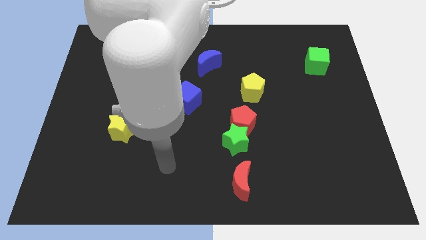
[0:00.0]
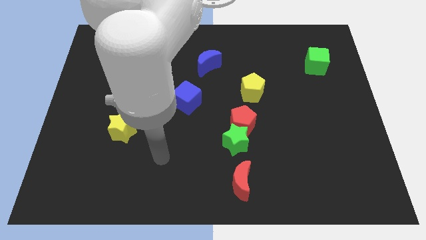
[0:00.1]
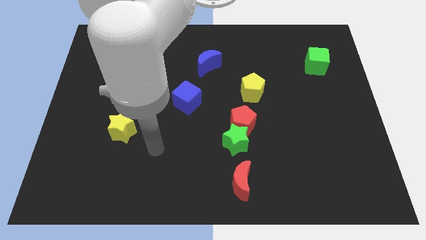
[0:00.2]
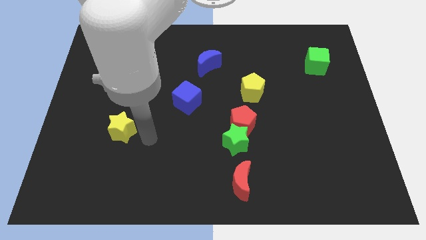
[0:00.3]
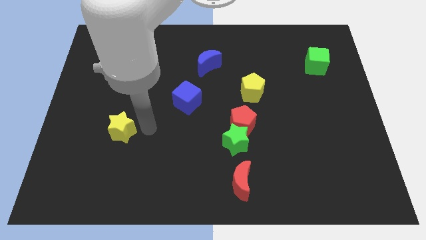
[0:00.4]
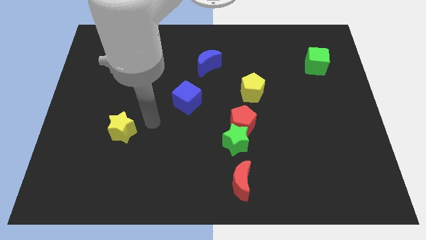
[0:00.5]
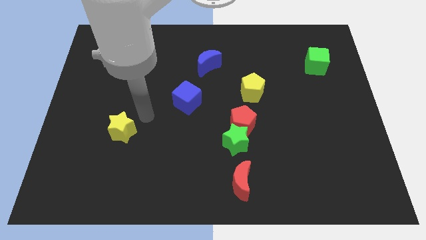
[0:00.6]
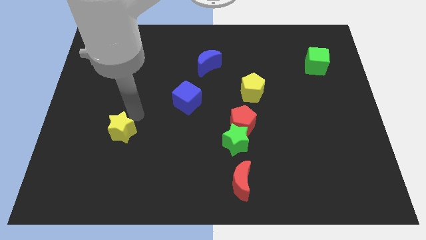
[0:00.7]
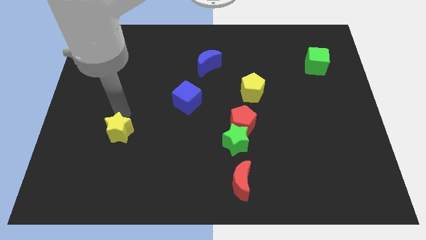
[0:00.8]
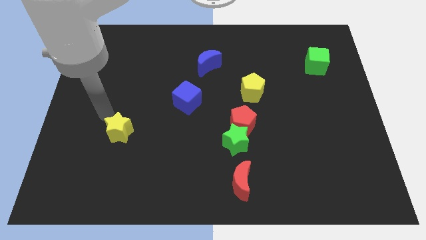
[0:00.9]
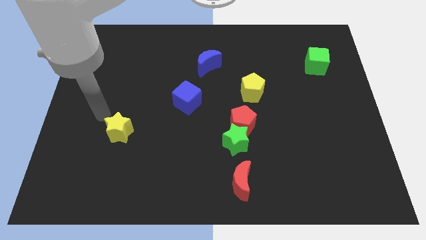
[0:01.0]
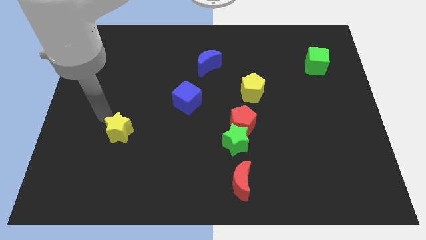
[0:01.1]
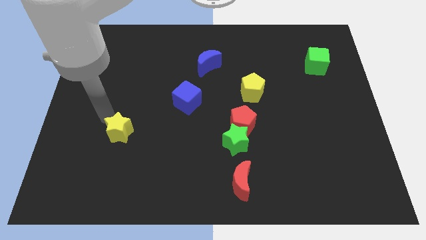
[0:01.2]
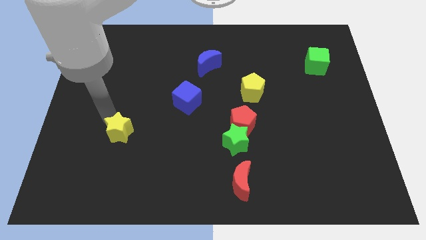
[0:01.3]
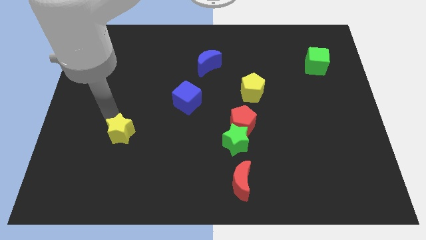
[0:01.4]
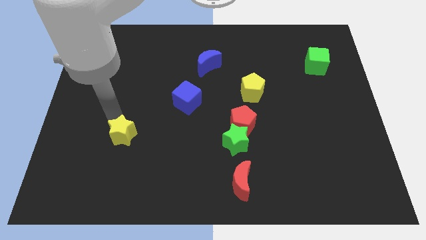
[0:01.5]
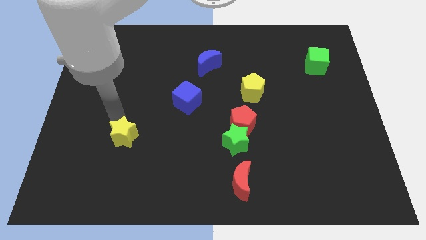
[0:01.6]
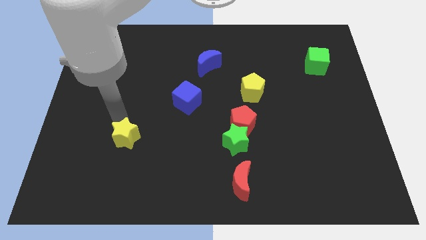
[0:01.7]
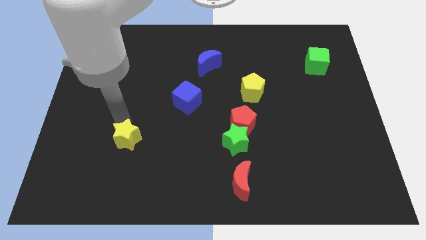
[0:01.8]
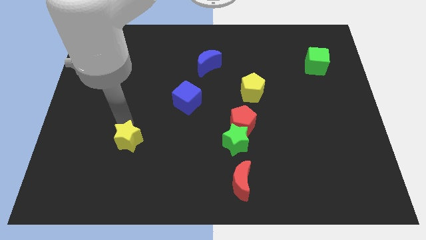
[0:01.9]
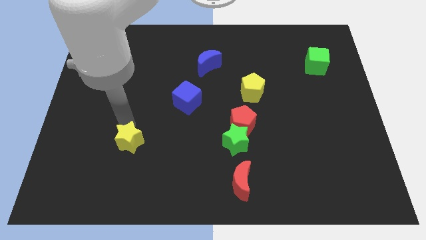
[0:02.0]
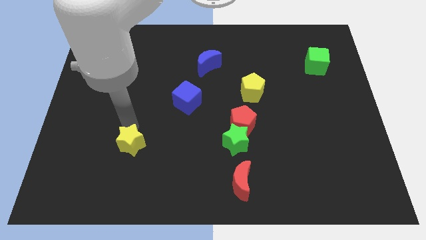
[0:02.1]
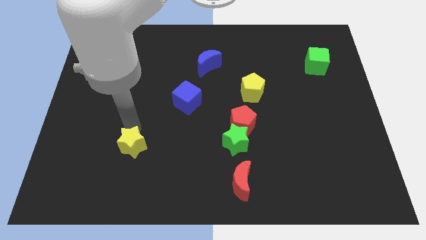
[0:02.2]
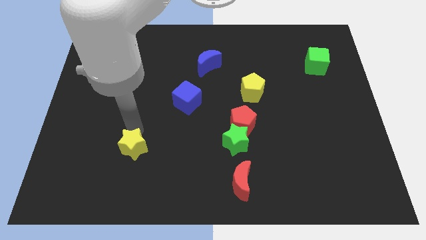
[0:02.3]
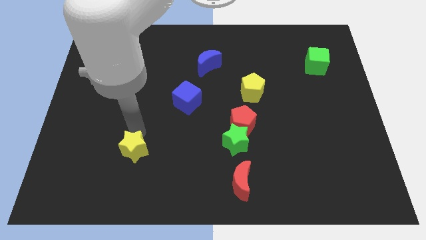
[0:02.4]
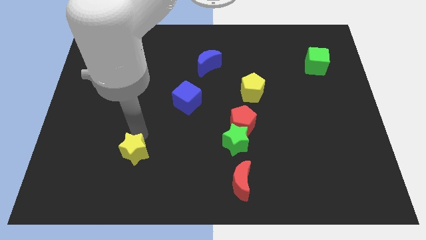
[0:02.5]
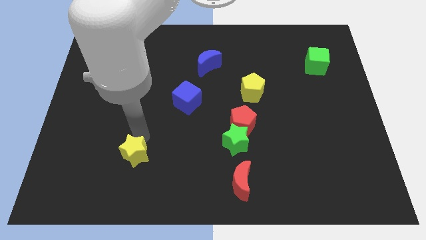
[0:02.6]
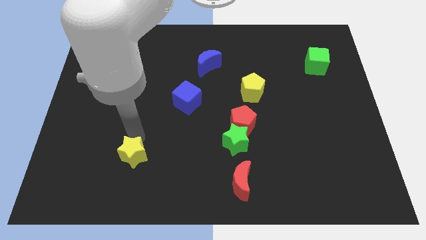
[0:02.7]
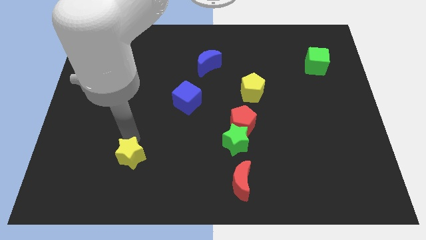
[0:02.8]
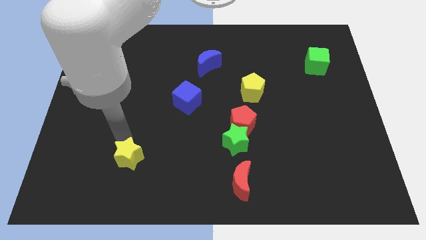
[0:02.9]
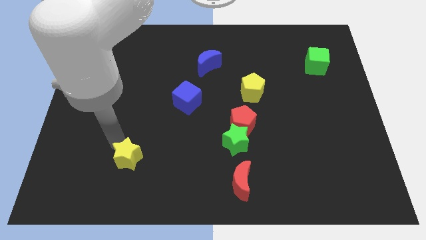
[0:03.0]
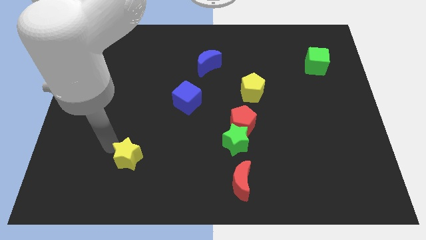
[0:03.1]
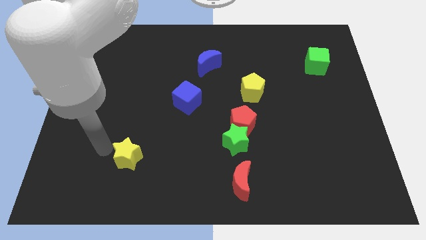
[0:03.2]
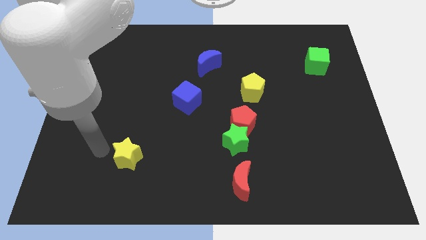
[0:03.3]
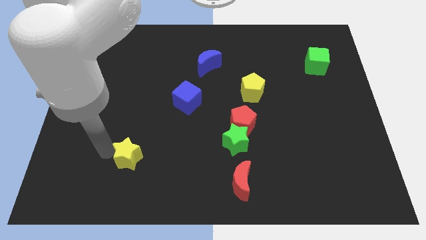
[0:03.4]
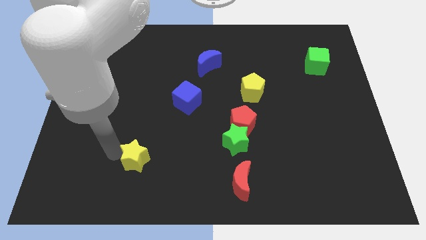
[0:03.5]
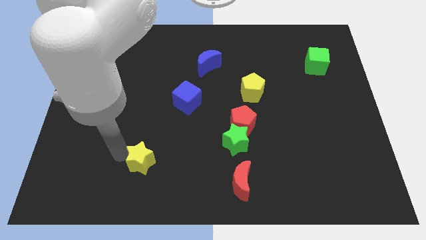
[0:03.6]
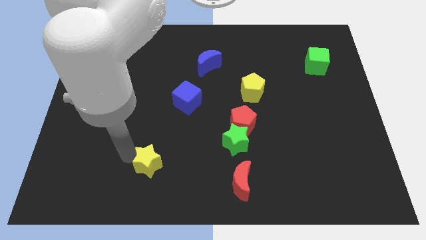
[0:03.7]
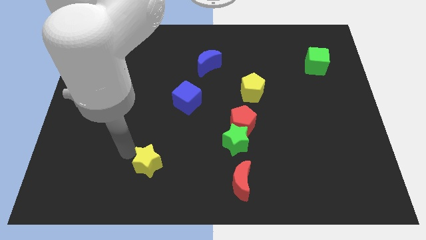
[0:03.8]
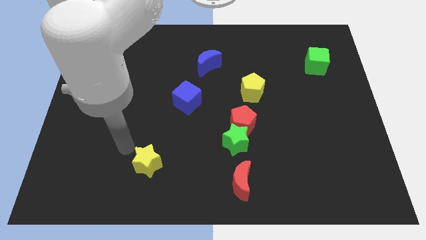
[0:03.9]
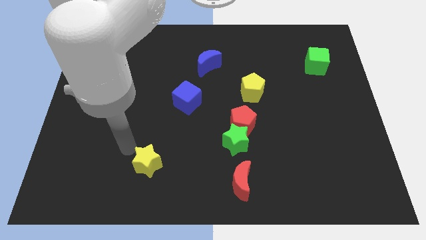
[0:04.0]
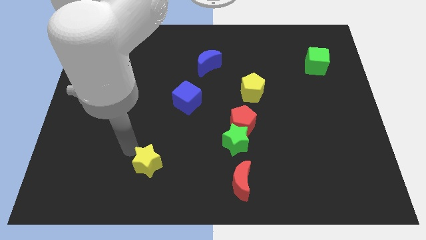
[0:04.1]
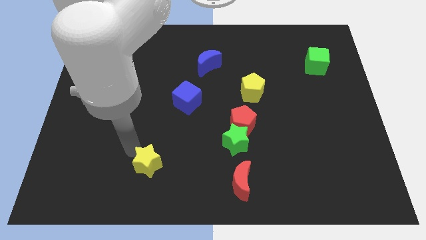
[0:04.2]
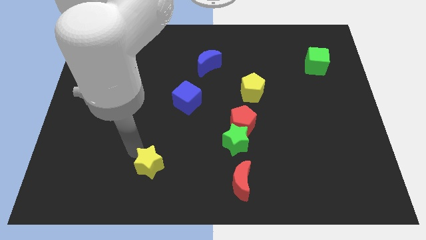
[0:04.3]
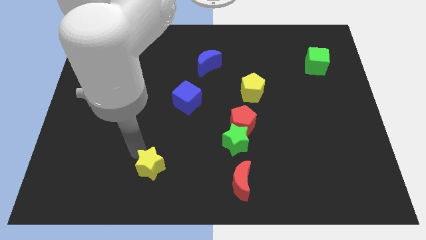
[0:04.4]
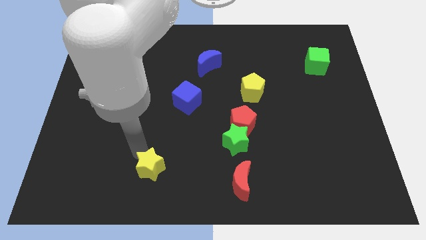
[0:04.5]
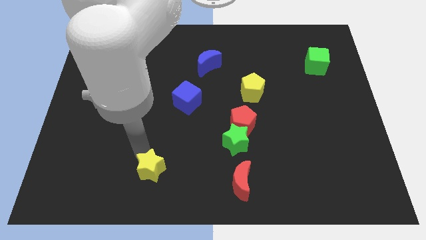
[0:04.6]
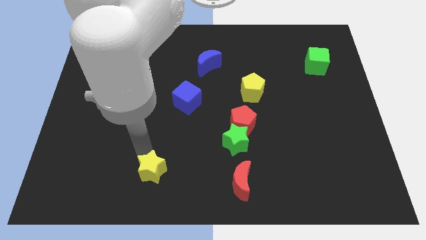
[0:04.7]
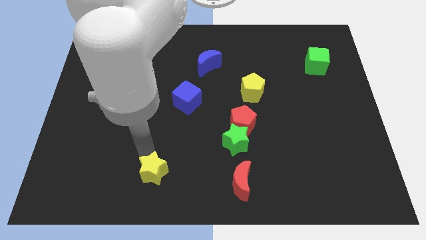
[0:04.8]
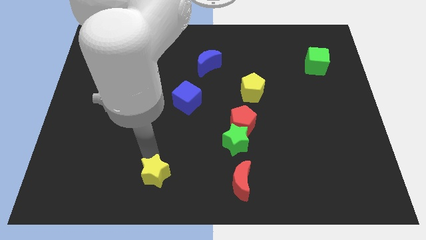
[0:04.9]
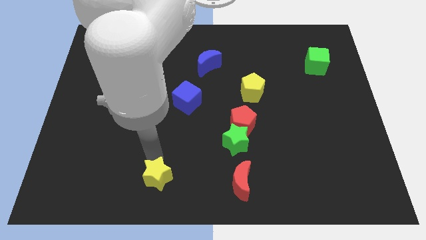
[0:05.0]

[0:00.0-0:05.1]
put the yellow star to the bottom

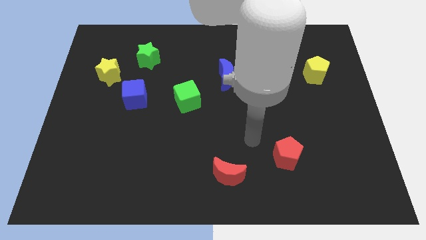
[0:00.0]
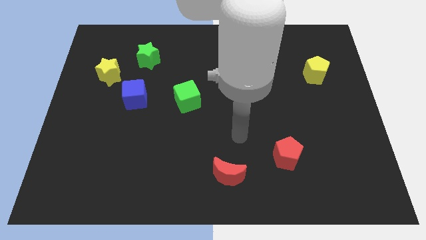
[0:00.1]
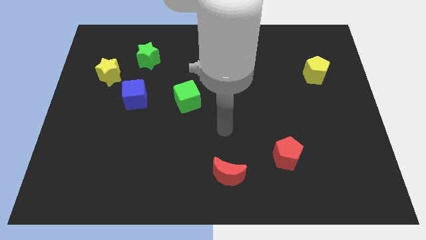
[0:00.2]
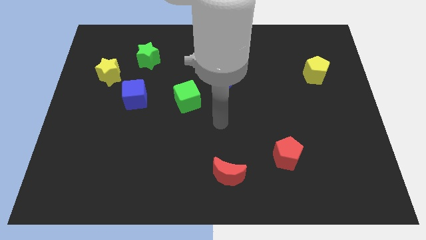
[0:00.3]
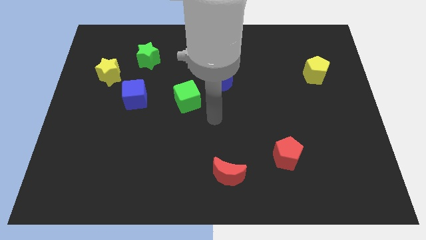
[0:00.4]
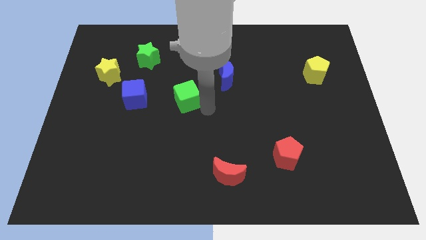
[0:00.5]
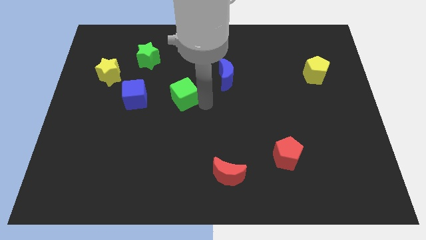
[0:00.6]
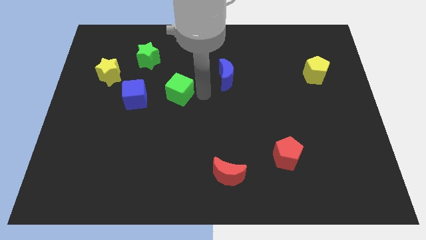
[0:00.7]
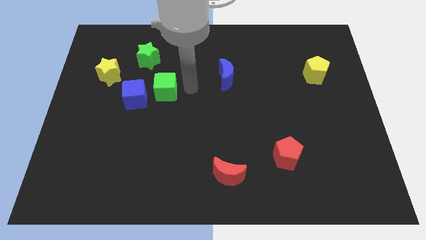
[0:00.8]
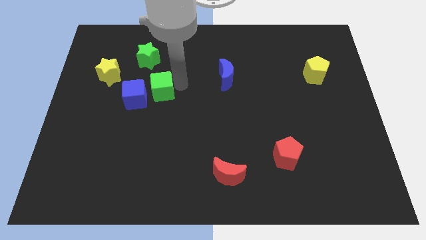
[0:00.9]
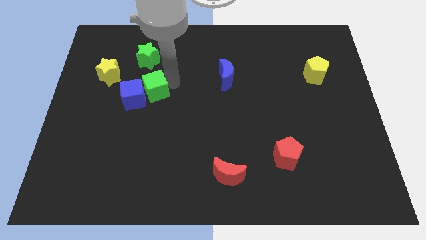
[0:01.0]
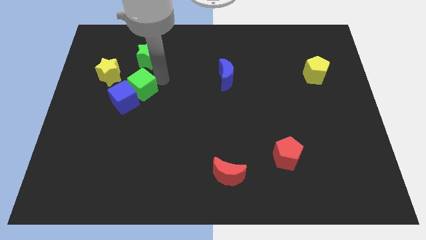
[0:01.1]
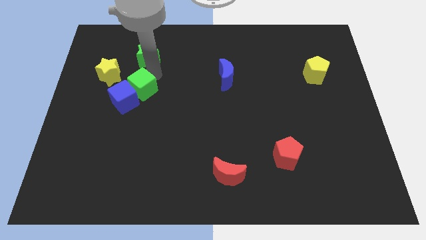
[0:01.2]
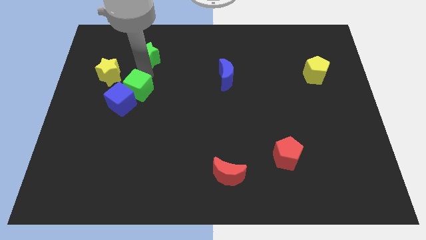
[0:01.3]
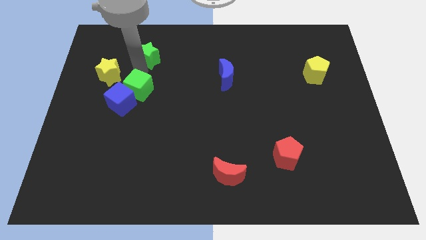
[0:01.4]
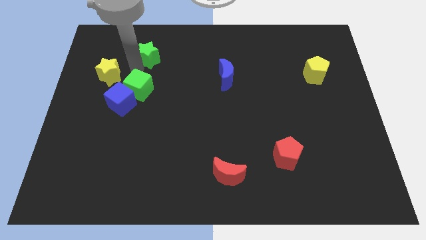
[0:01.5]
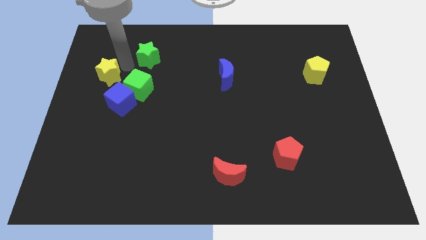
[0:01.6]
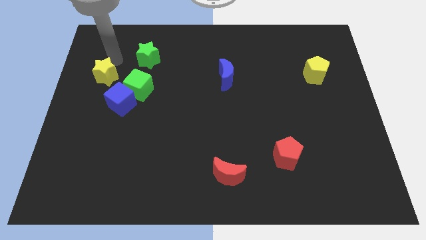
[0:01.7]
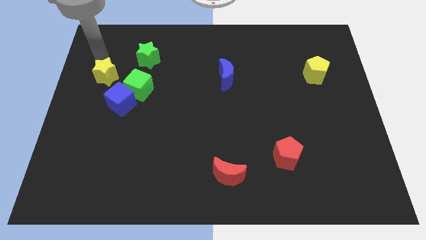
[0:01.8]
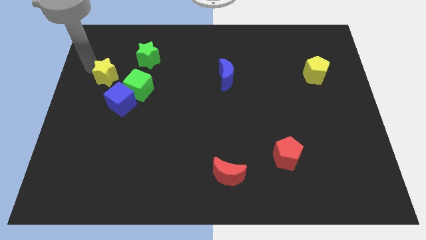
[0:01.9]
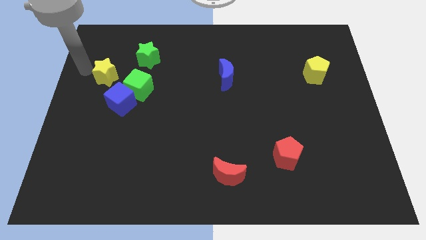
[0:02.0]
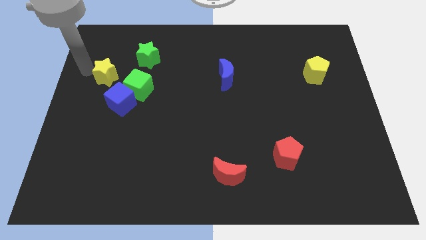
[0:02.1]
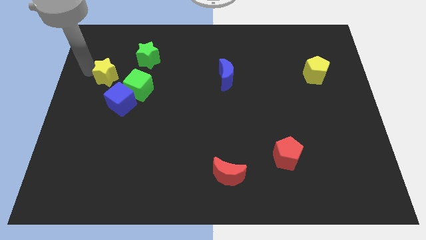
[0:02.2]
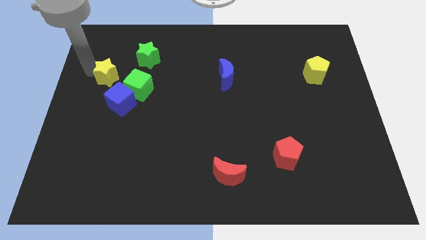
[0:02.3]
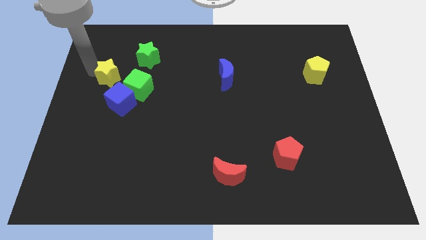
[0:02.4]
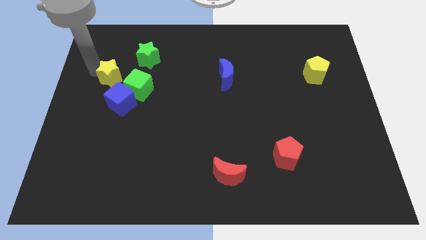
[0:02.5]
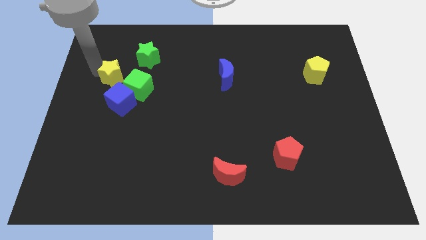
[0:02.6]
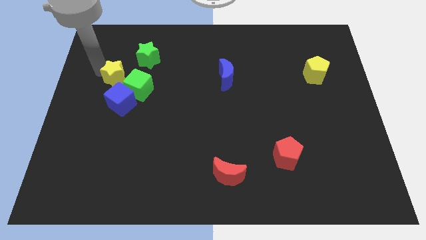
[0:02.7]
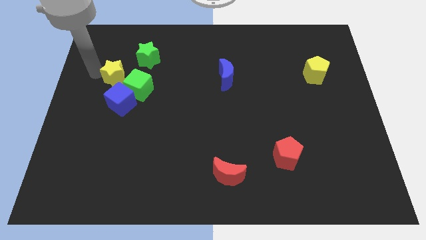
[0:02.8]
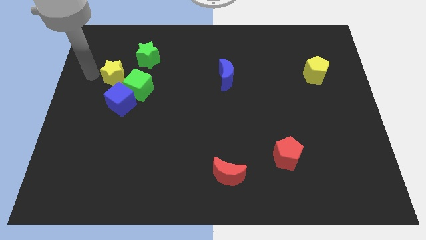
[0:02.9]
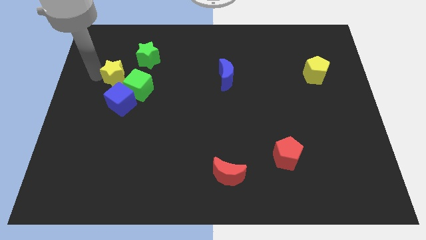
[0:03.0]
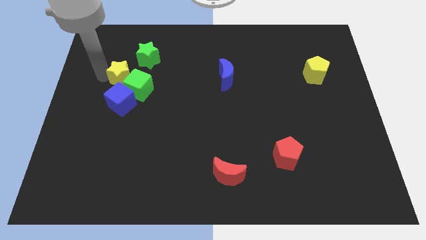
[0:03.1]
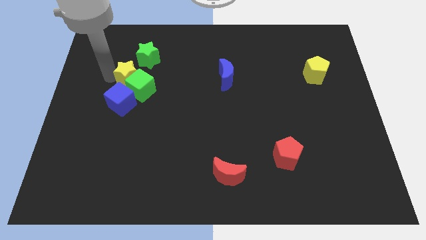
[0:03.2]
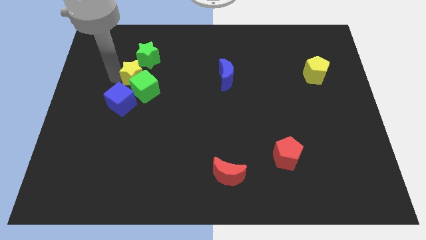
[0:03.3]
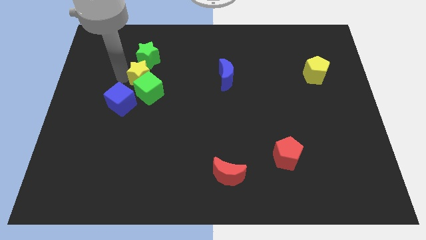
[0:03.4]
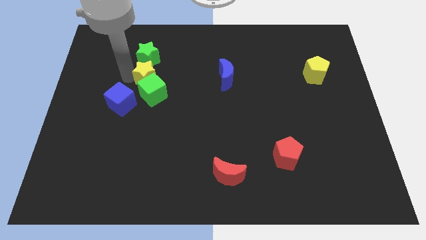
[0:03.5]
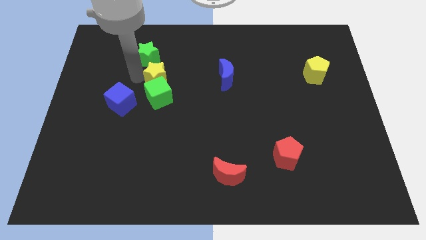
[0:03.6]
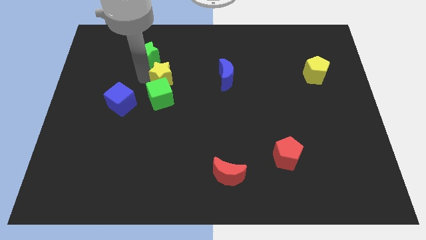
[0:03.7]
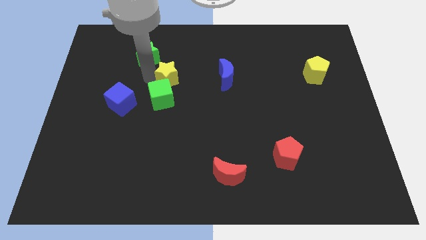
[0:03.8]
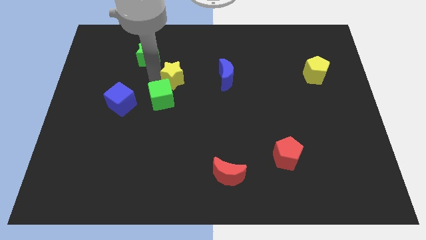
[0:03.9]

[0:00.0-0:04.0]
slide the yellow star to the center
